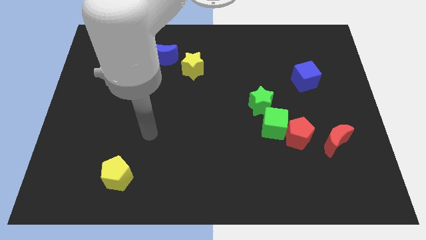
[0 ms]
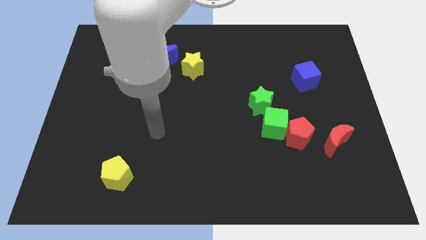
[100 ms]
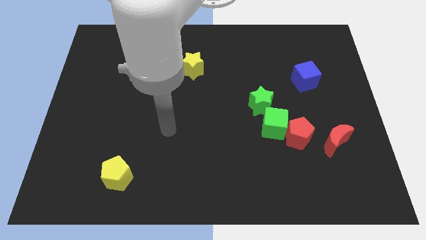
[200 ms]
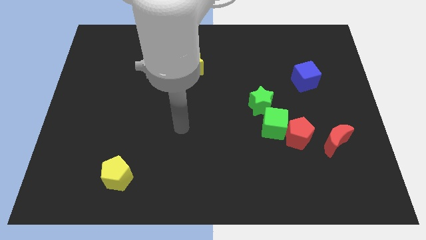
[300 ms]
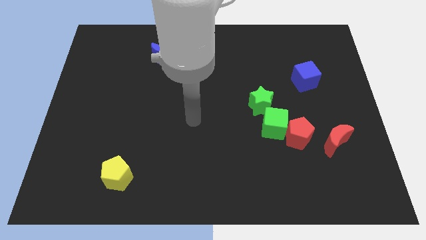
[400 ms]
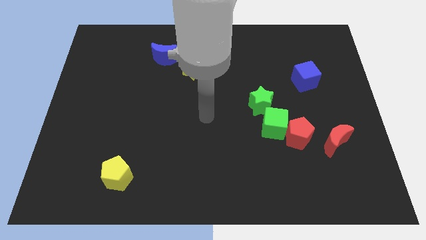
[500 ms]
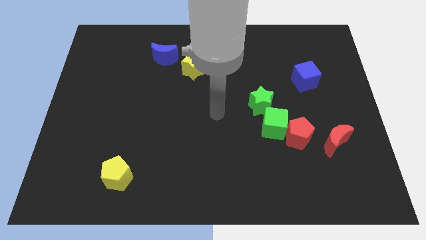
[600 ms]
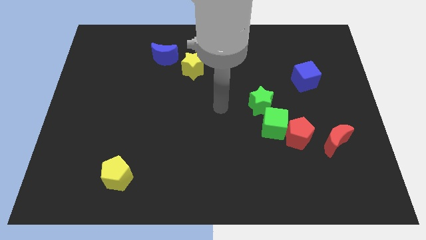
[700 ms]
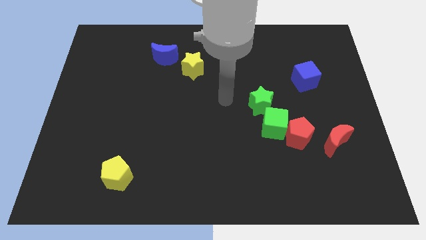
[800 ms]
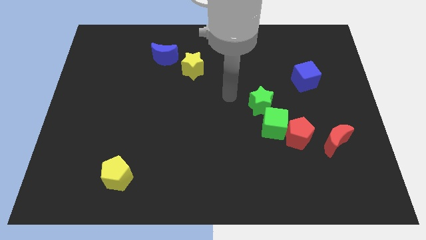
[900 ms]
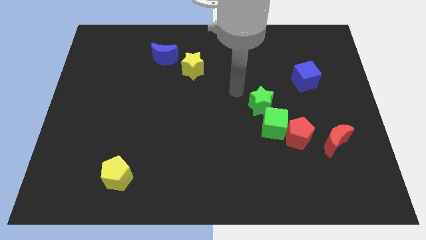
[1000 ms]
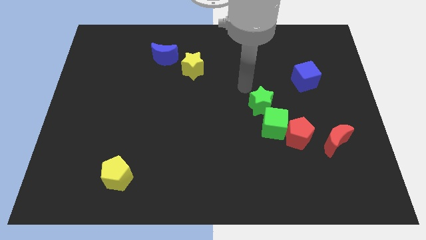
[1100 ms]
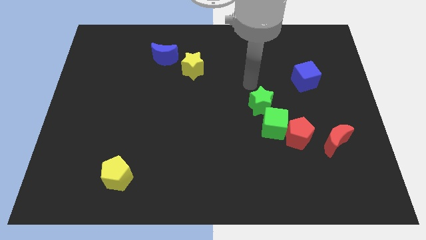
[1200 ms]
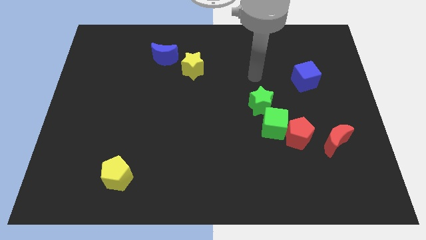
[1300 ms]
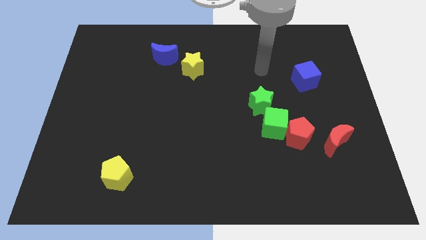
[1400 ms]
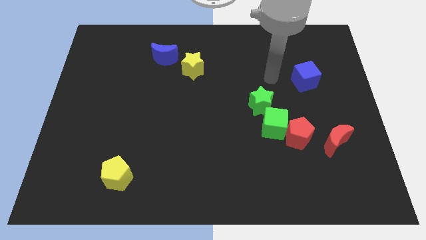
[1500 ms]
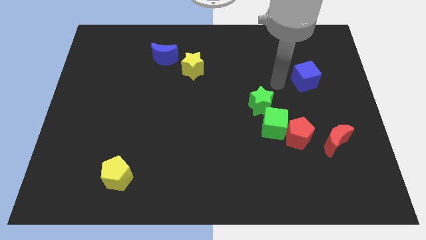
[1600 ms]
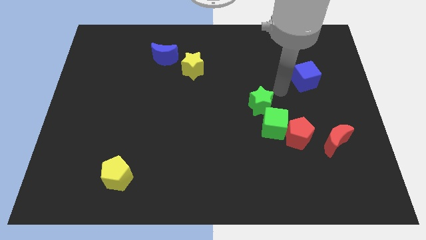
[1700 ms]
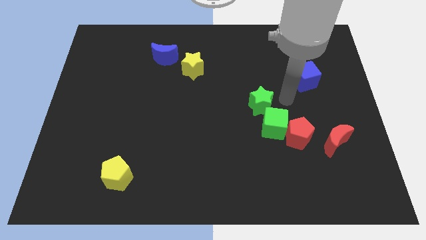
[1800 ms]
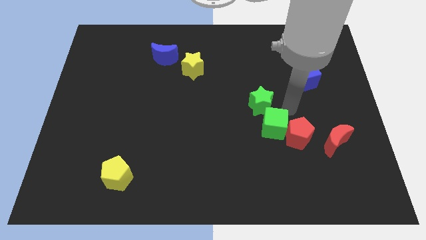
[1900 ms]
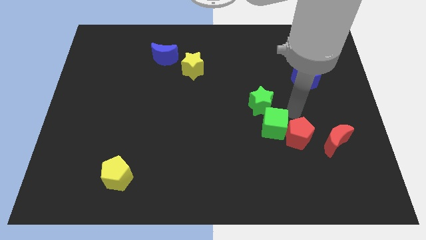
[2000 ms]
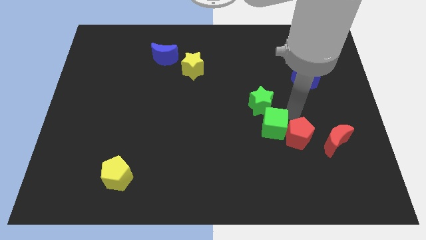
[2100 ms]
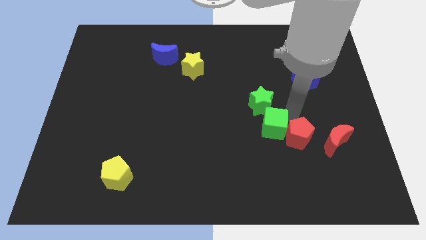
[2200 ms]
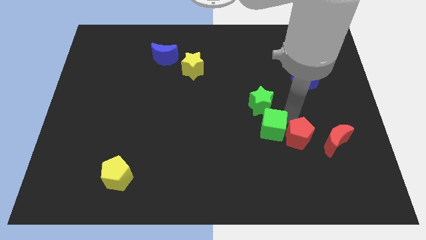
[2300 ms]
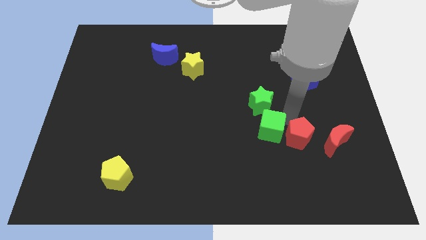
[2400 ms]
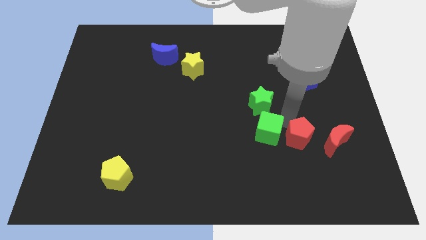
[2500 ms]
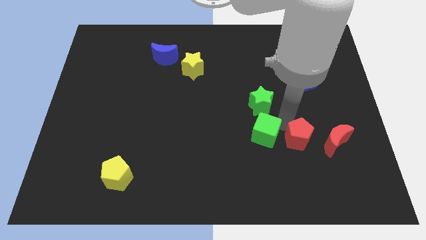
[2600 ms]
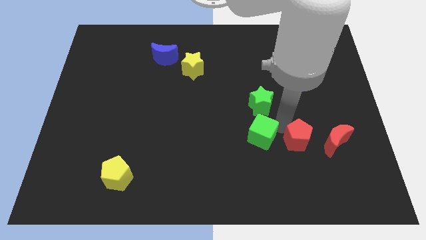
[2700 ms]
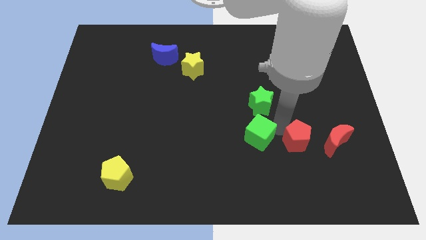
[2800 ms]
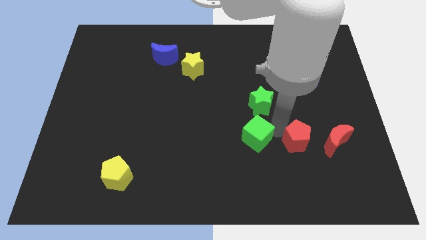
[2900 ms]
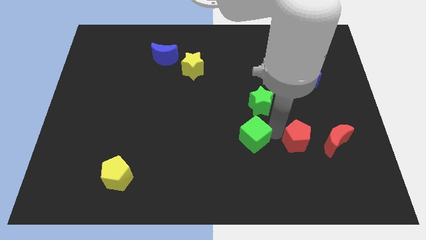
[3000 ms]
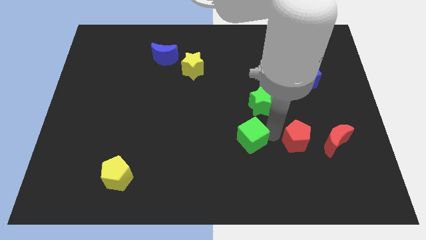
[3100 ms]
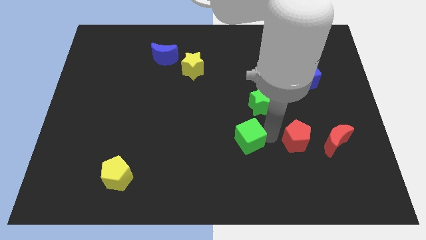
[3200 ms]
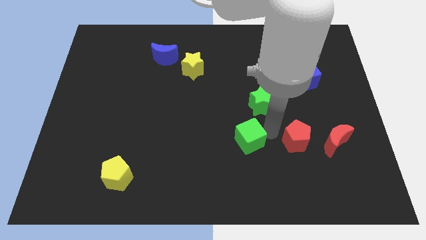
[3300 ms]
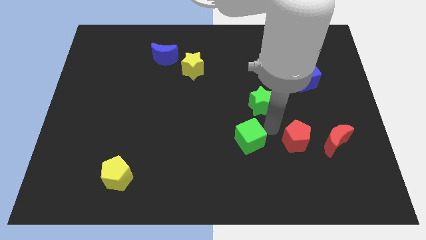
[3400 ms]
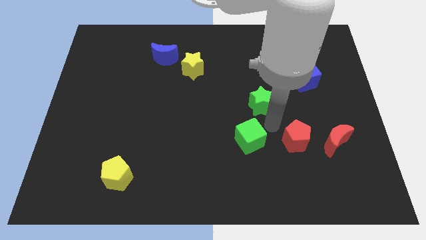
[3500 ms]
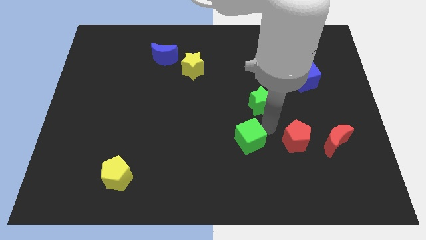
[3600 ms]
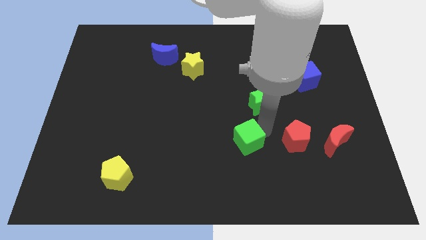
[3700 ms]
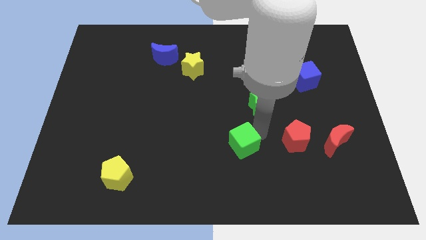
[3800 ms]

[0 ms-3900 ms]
pull the green cube apart from the red pentagon and green star

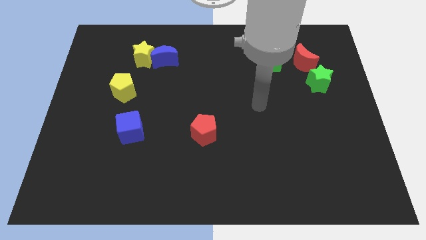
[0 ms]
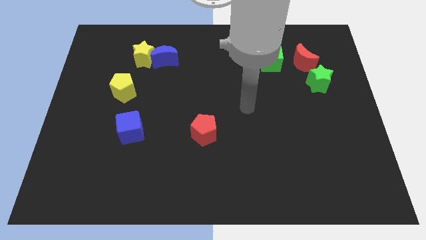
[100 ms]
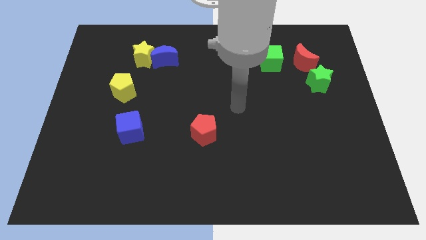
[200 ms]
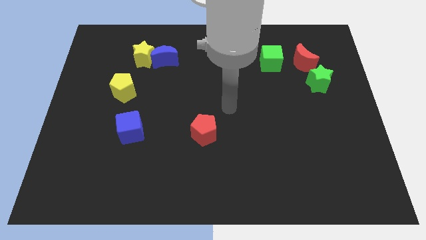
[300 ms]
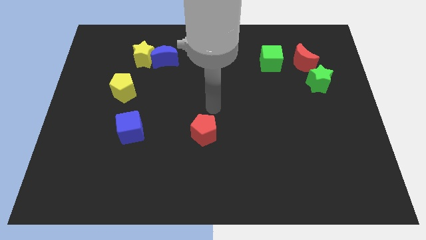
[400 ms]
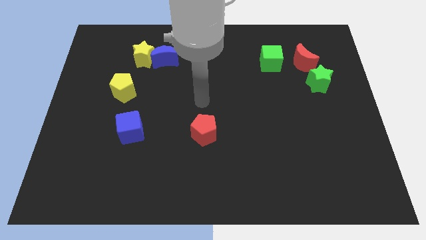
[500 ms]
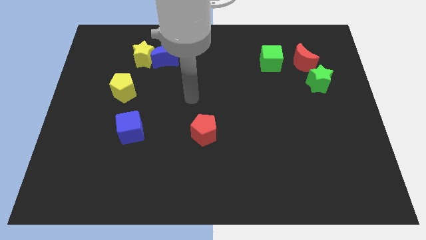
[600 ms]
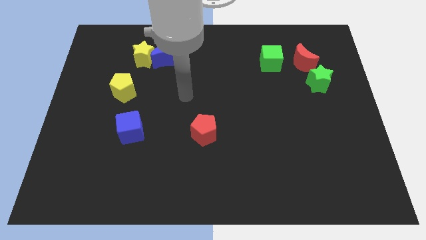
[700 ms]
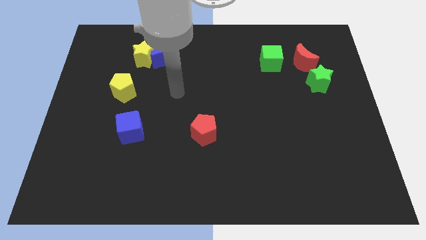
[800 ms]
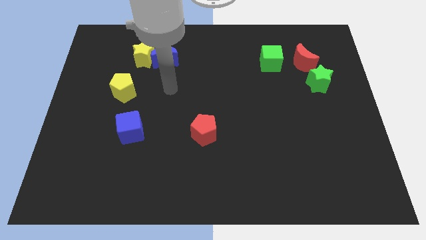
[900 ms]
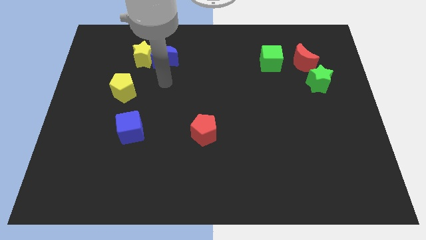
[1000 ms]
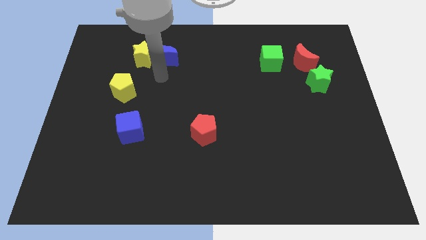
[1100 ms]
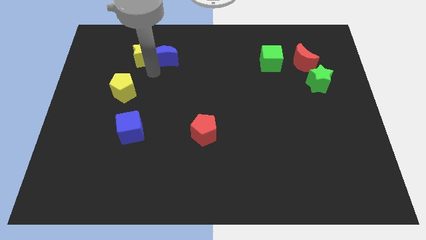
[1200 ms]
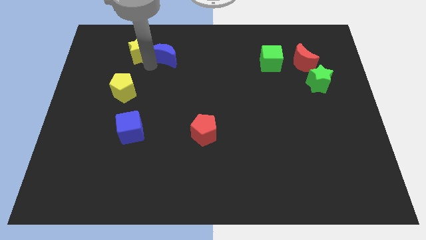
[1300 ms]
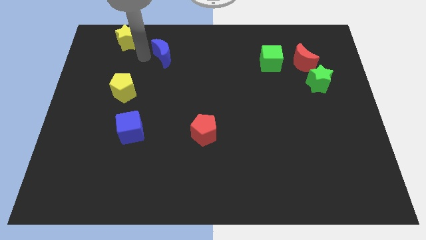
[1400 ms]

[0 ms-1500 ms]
pull the blue moon apart from the yellow star

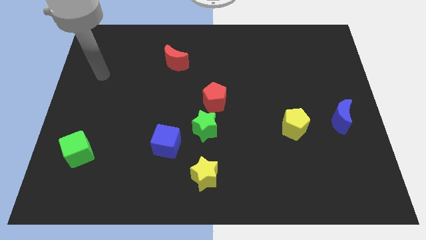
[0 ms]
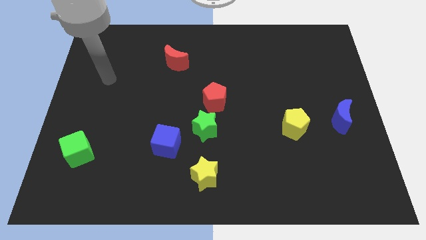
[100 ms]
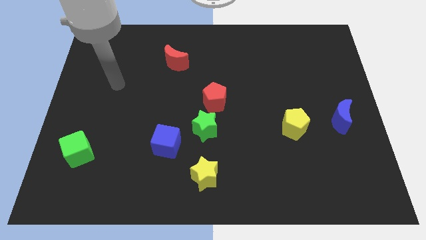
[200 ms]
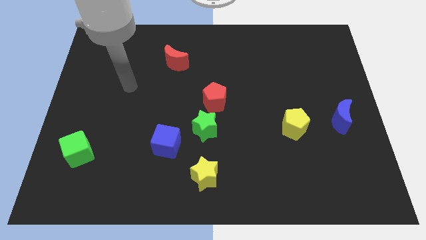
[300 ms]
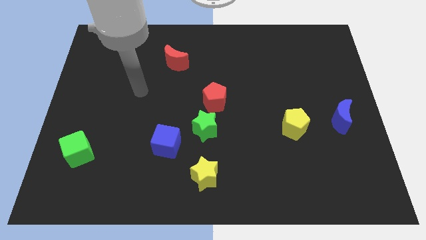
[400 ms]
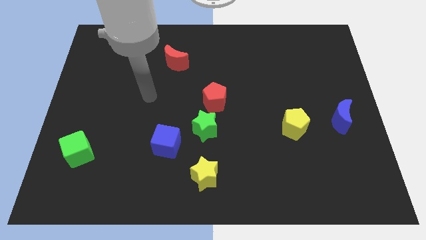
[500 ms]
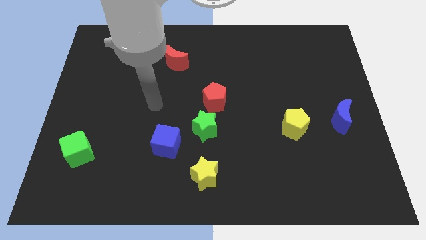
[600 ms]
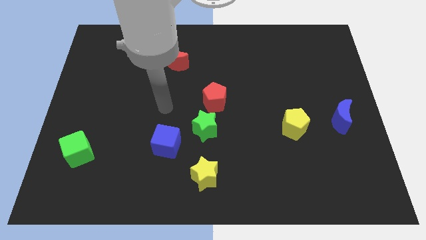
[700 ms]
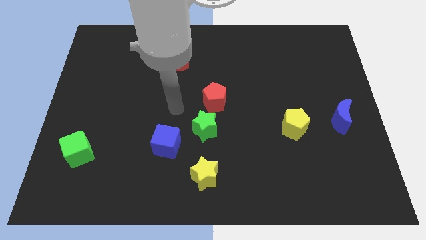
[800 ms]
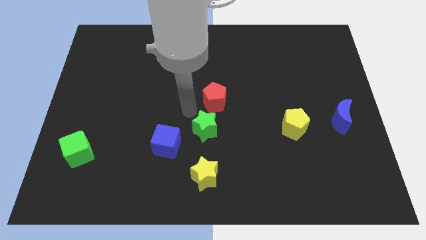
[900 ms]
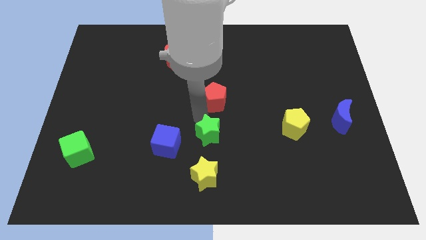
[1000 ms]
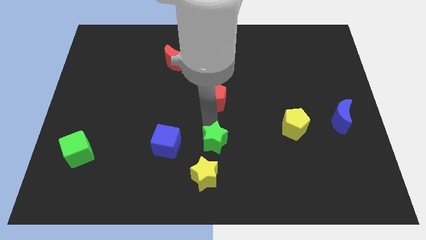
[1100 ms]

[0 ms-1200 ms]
pull the red pentagon apart from the green star

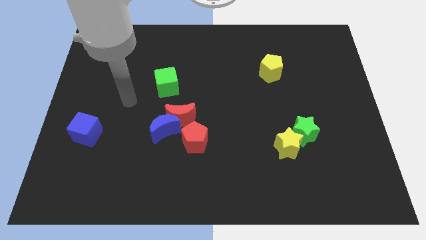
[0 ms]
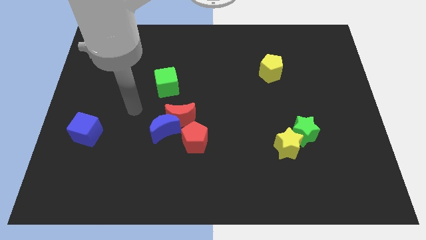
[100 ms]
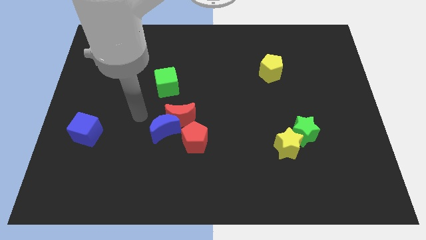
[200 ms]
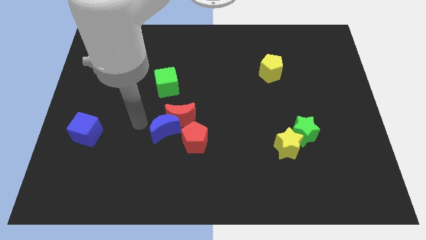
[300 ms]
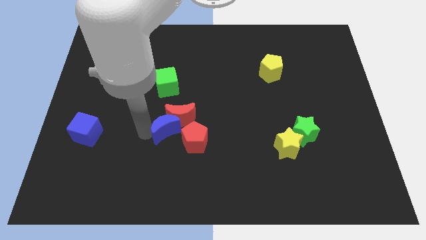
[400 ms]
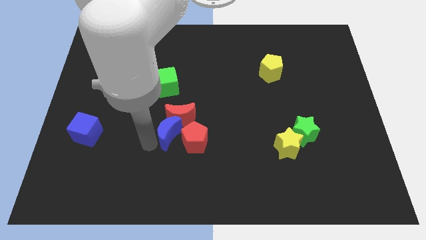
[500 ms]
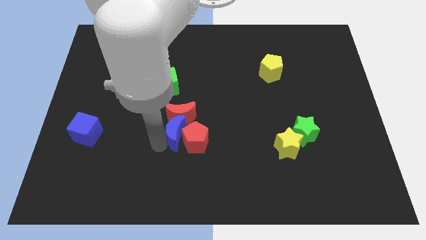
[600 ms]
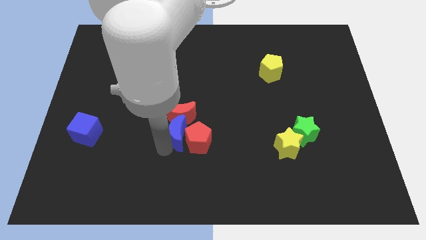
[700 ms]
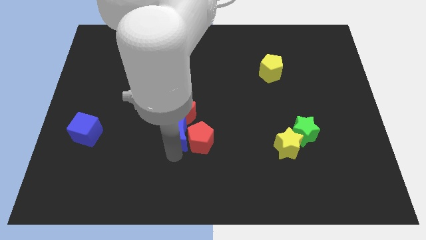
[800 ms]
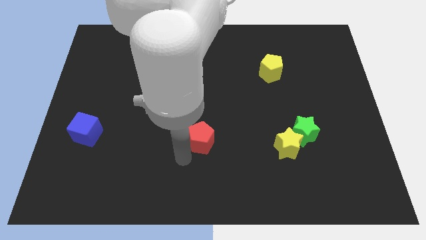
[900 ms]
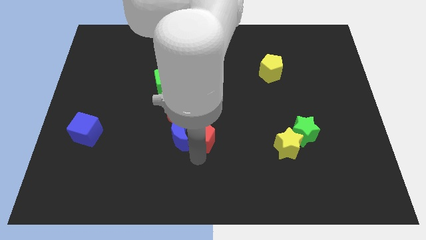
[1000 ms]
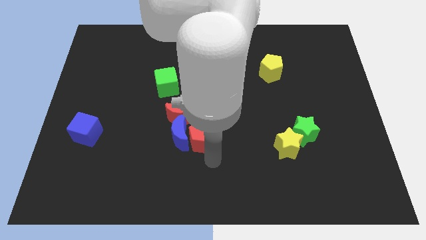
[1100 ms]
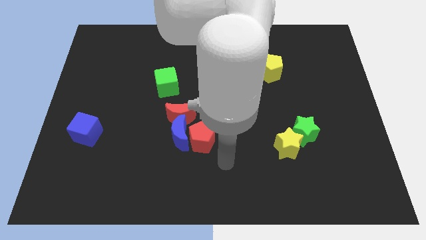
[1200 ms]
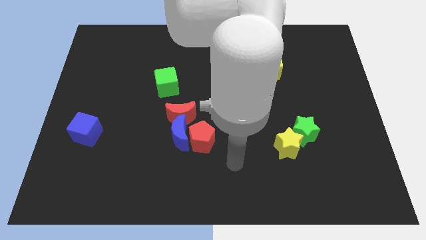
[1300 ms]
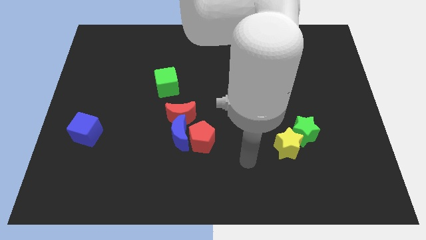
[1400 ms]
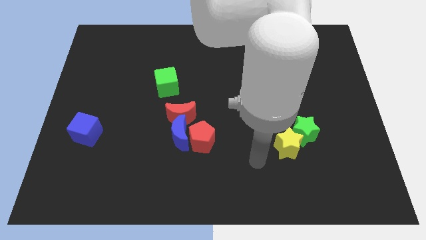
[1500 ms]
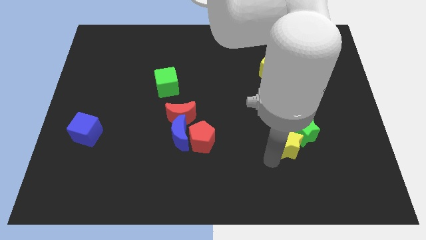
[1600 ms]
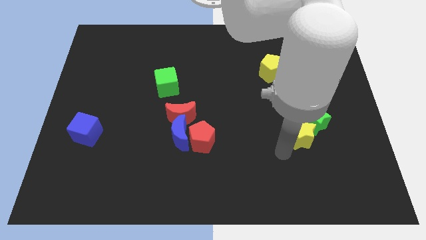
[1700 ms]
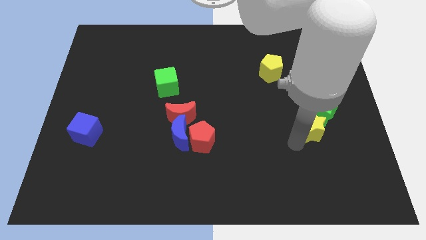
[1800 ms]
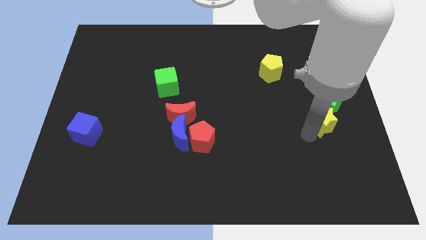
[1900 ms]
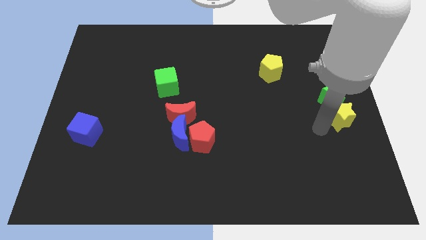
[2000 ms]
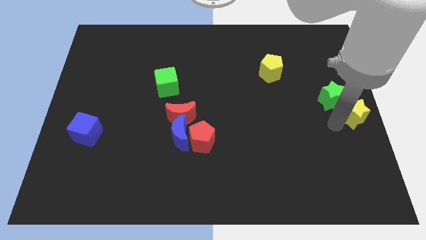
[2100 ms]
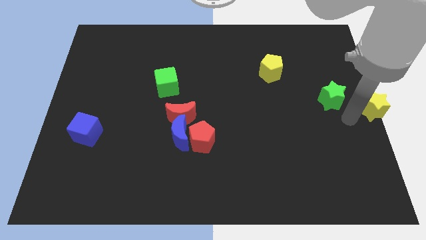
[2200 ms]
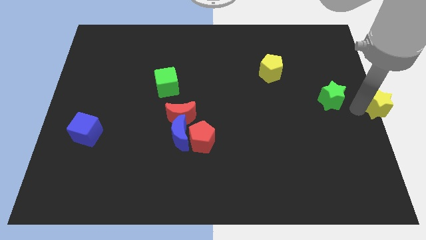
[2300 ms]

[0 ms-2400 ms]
pull the green star apart from the yellow star

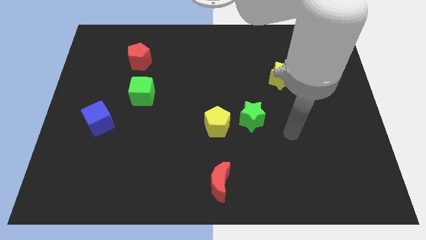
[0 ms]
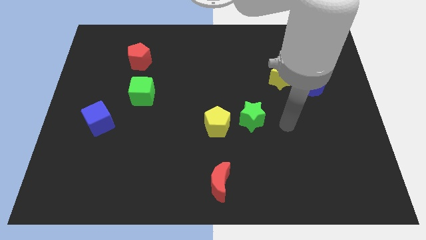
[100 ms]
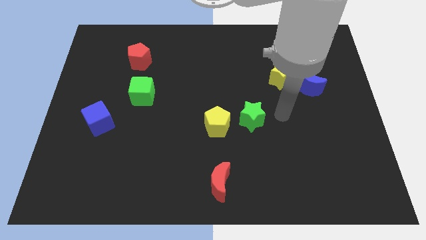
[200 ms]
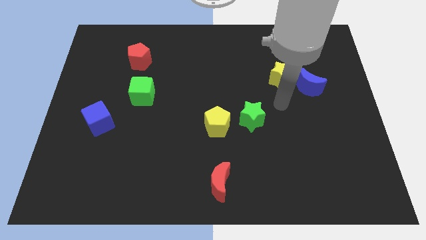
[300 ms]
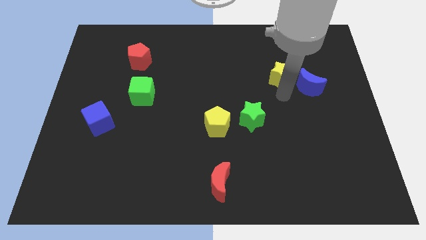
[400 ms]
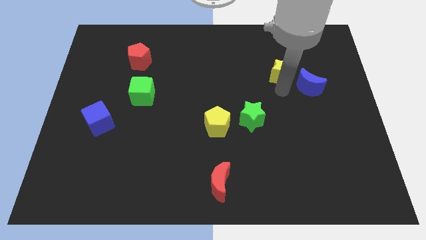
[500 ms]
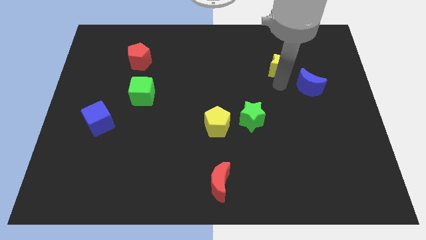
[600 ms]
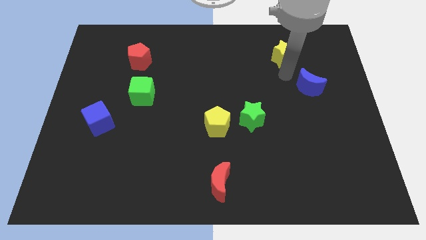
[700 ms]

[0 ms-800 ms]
separate the blue moon from the yellow star
